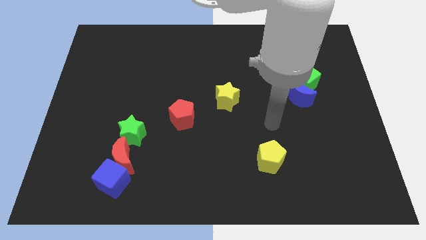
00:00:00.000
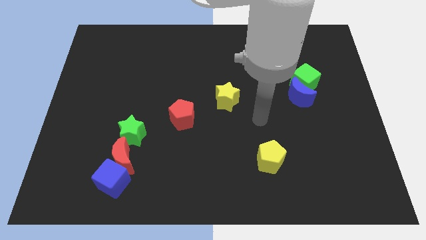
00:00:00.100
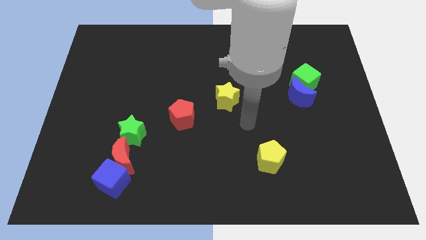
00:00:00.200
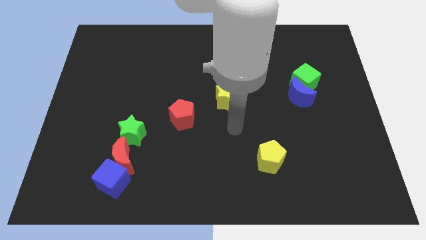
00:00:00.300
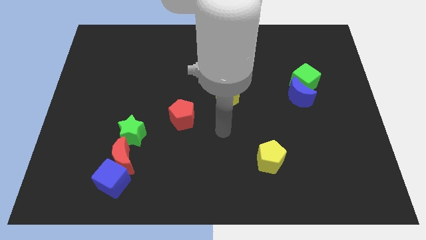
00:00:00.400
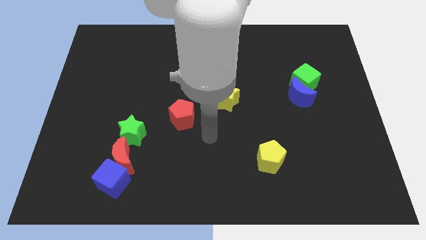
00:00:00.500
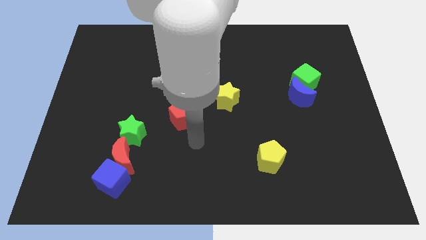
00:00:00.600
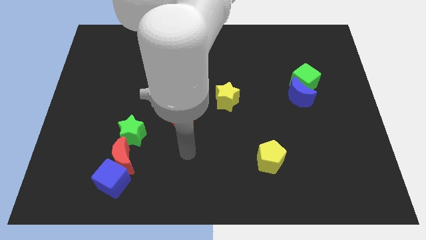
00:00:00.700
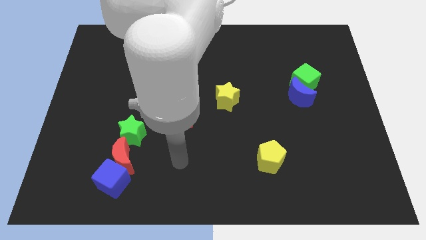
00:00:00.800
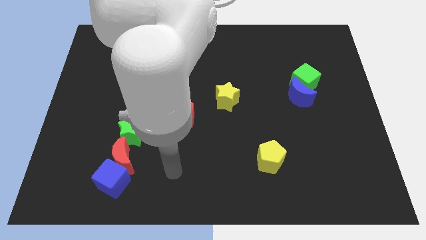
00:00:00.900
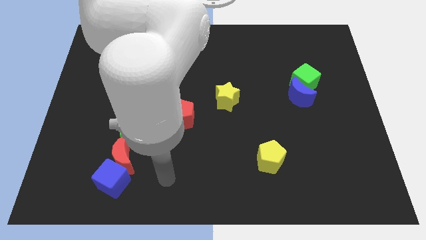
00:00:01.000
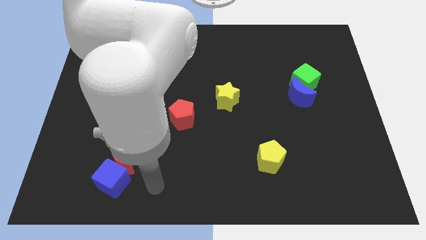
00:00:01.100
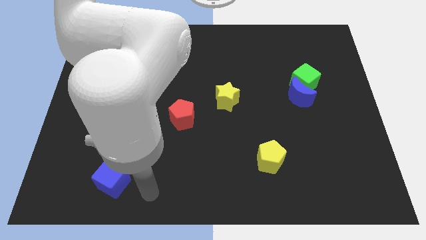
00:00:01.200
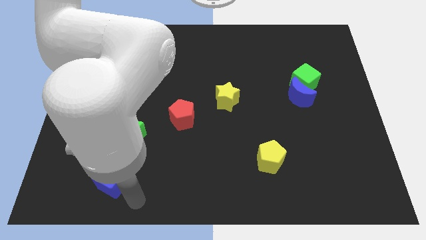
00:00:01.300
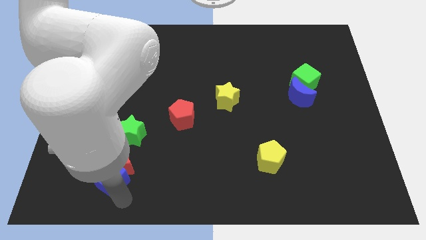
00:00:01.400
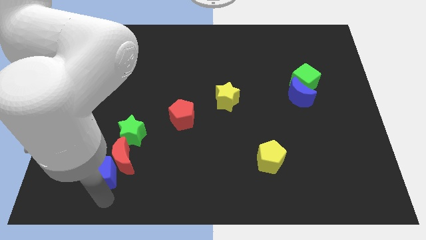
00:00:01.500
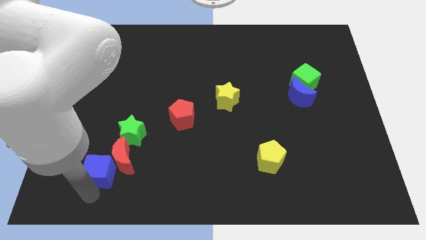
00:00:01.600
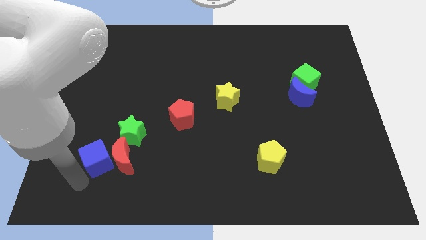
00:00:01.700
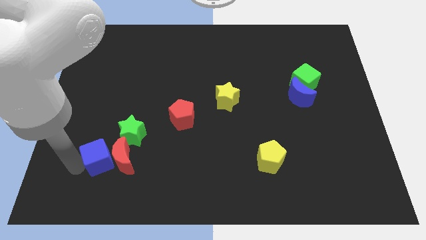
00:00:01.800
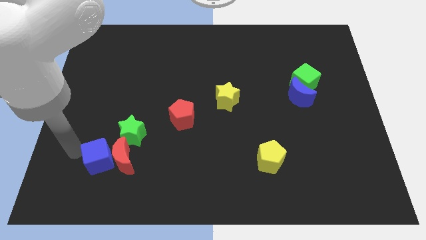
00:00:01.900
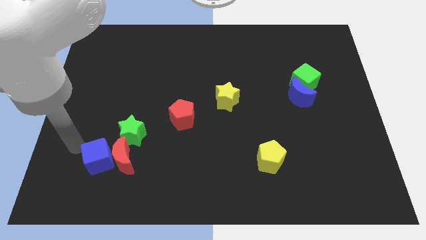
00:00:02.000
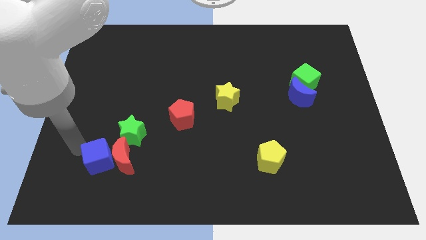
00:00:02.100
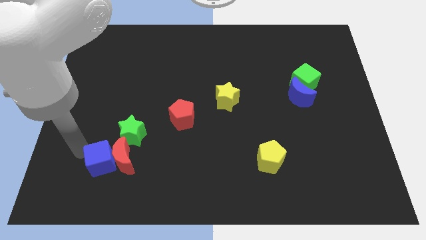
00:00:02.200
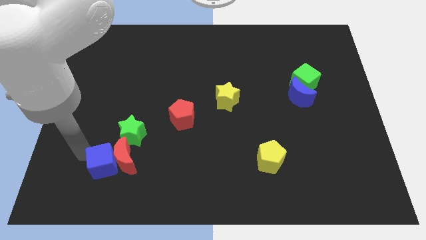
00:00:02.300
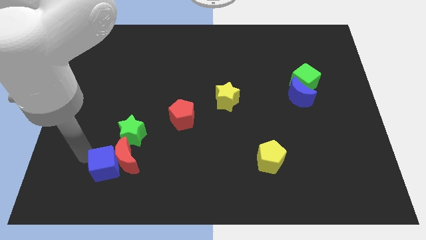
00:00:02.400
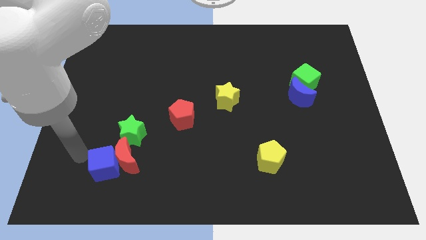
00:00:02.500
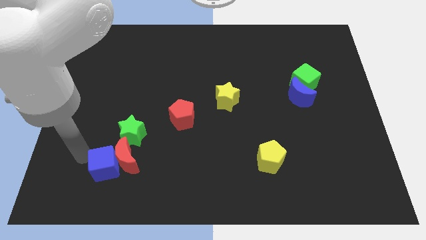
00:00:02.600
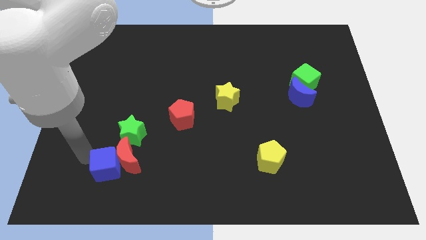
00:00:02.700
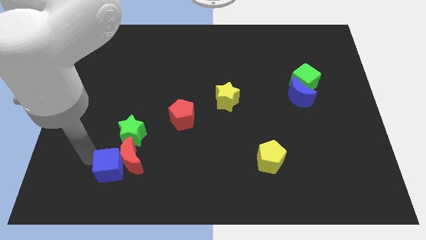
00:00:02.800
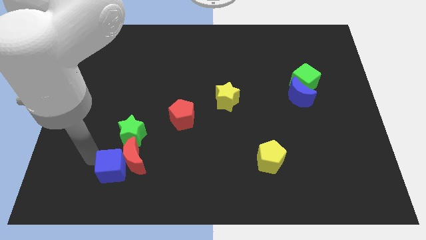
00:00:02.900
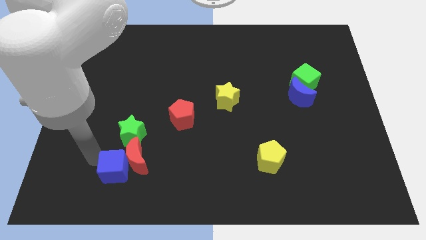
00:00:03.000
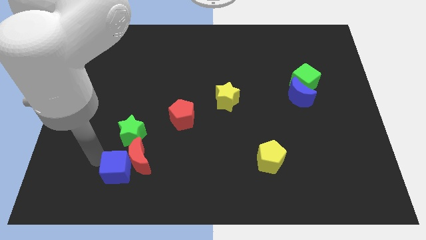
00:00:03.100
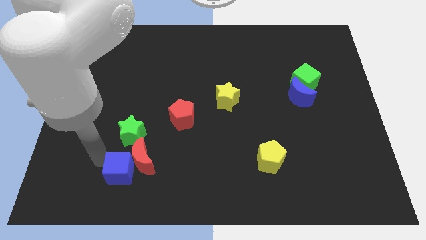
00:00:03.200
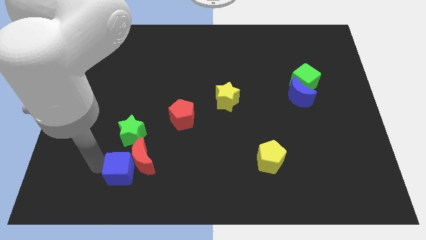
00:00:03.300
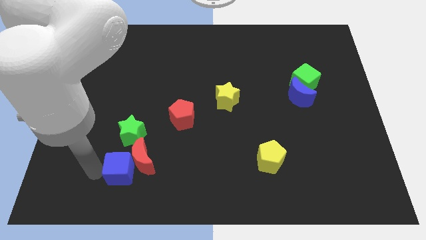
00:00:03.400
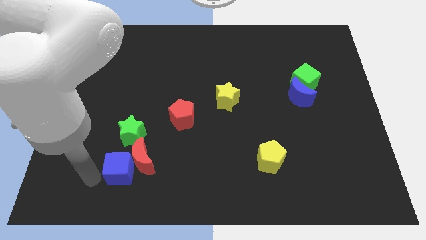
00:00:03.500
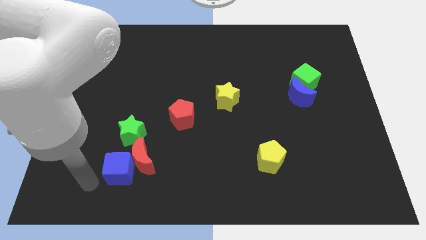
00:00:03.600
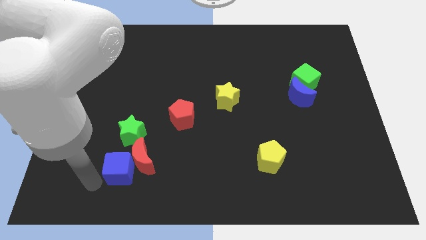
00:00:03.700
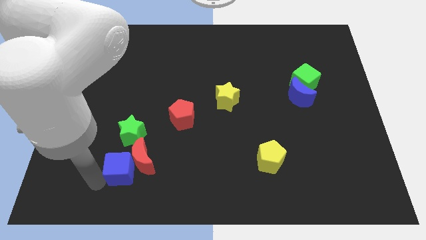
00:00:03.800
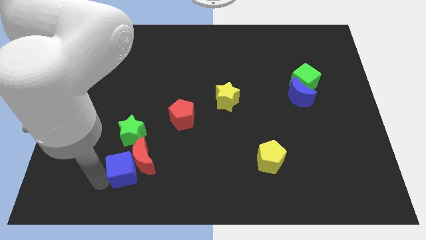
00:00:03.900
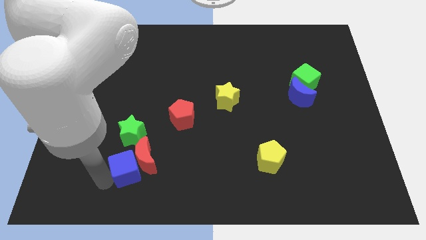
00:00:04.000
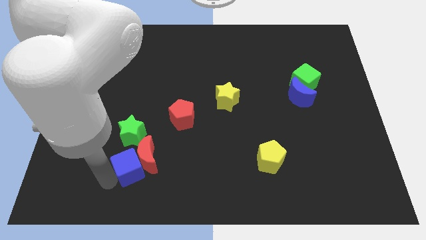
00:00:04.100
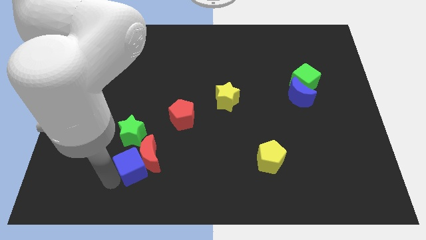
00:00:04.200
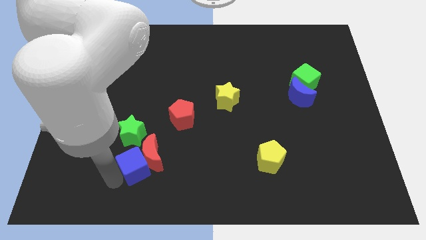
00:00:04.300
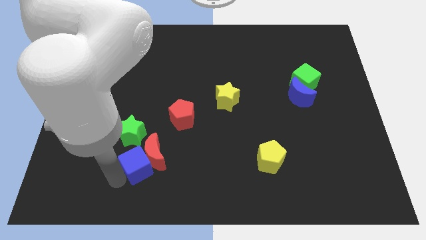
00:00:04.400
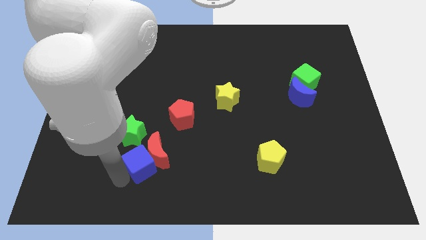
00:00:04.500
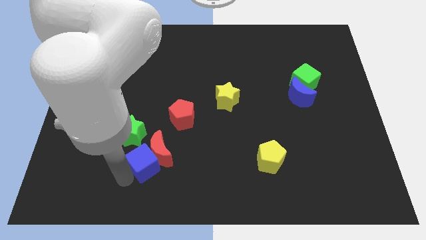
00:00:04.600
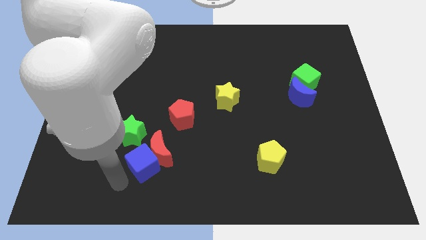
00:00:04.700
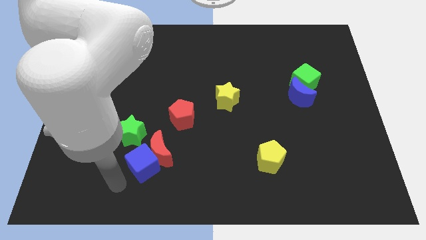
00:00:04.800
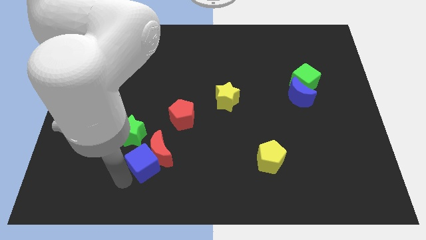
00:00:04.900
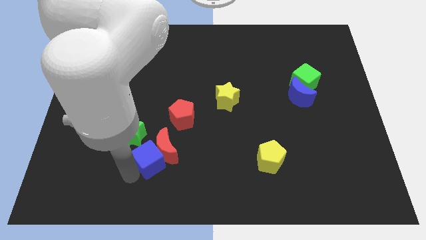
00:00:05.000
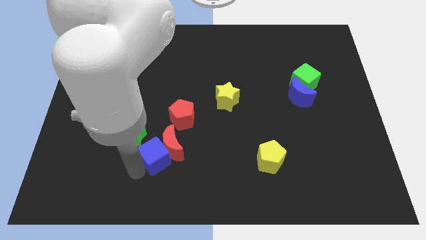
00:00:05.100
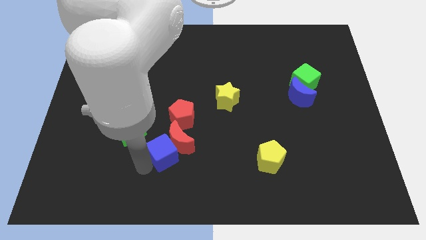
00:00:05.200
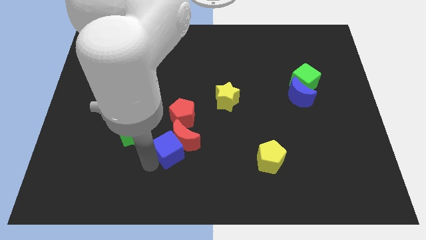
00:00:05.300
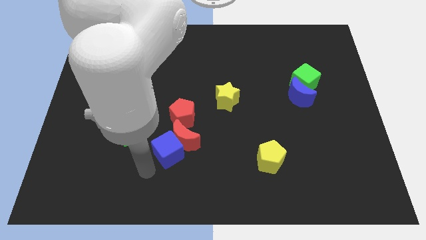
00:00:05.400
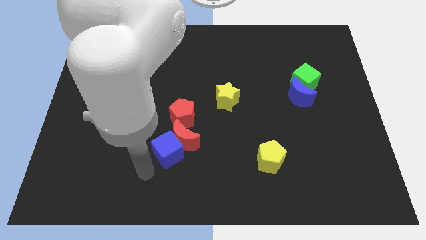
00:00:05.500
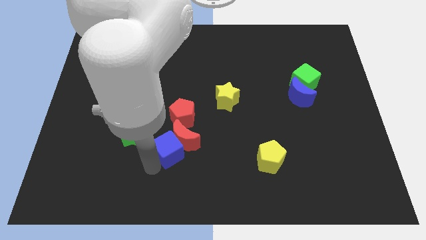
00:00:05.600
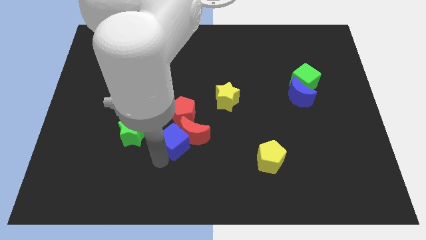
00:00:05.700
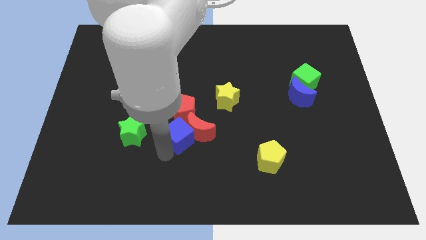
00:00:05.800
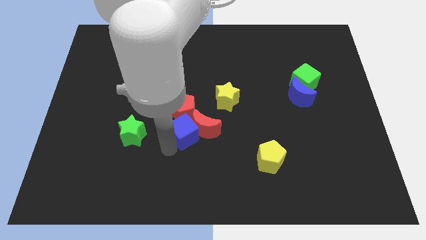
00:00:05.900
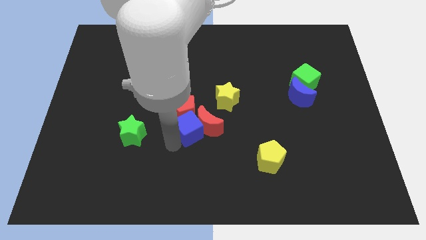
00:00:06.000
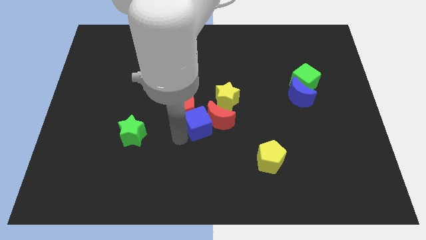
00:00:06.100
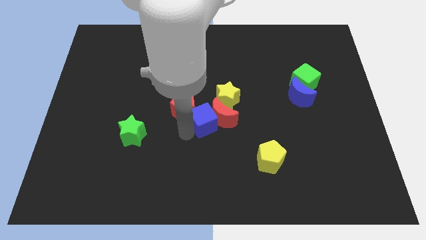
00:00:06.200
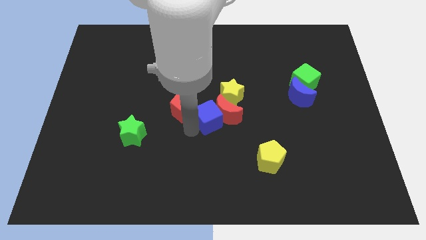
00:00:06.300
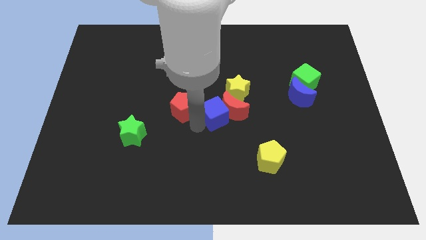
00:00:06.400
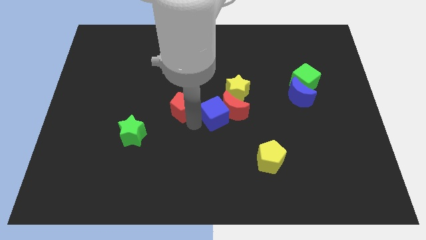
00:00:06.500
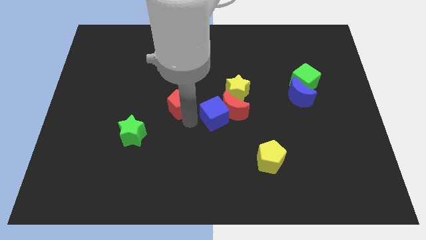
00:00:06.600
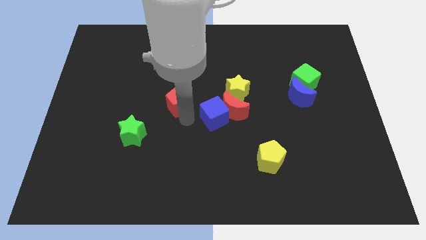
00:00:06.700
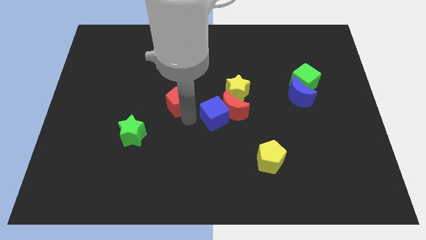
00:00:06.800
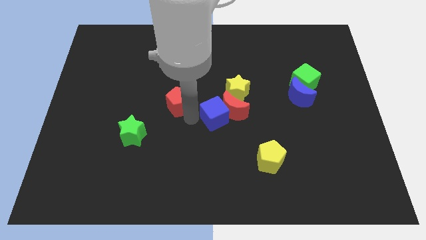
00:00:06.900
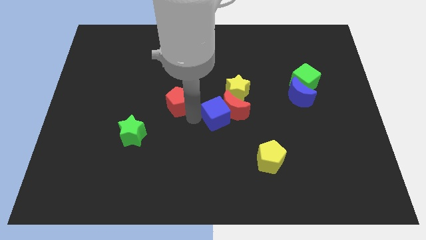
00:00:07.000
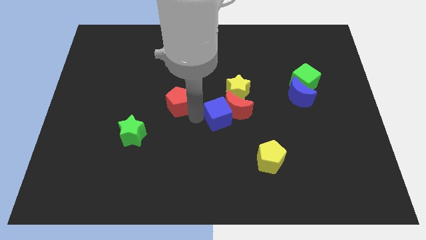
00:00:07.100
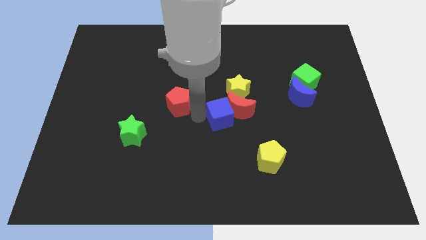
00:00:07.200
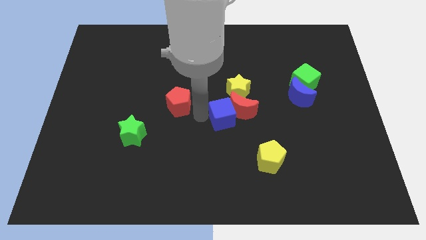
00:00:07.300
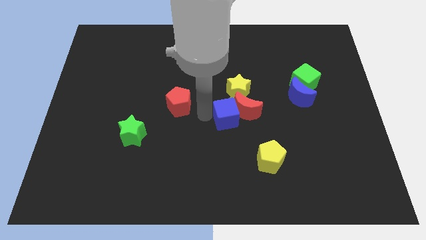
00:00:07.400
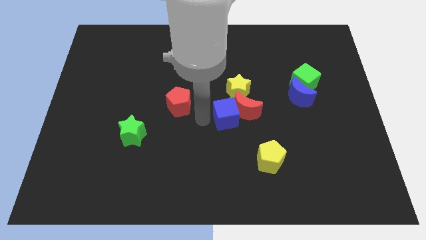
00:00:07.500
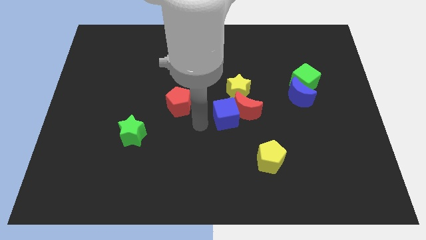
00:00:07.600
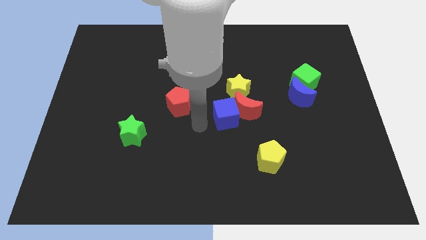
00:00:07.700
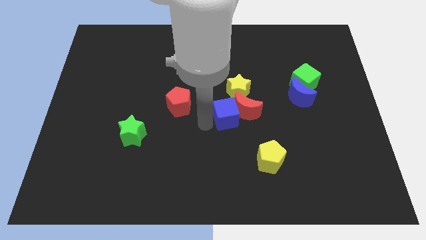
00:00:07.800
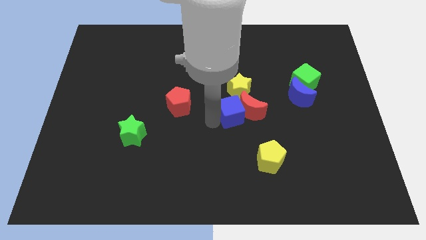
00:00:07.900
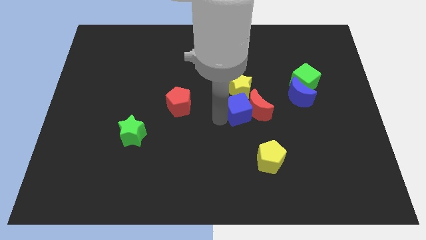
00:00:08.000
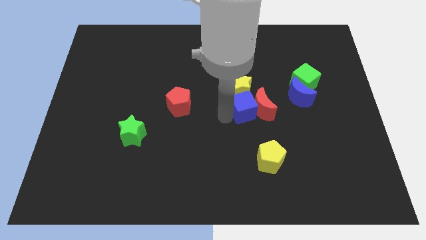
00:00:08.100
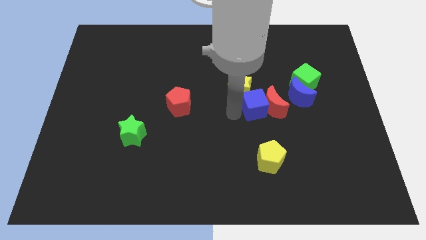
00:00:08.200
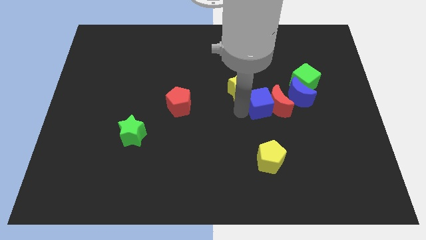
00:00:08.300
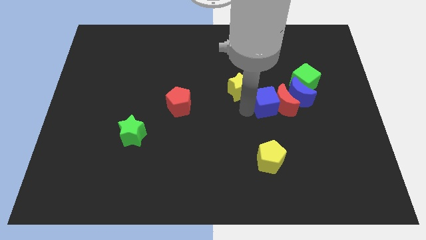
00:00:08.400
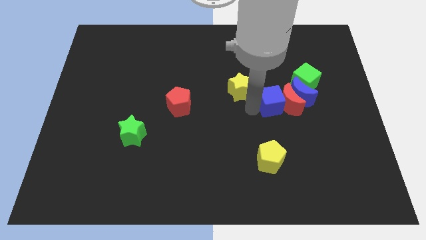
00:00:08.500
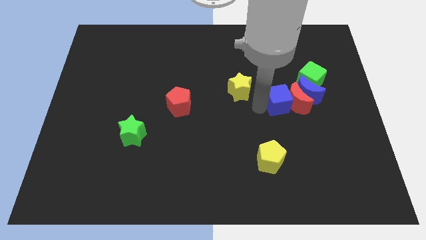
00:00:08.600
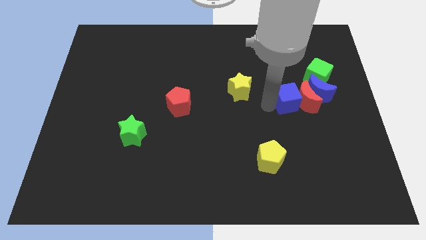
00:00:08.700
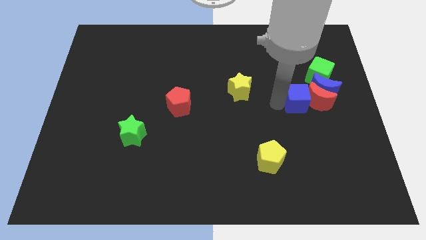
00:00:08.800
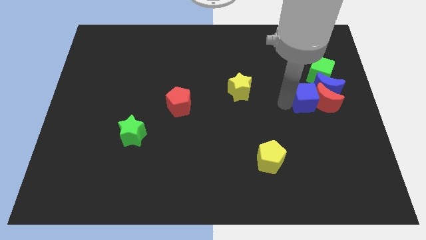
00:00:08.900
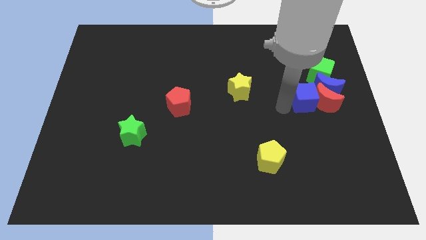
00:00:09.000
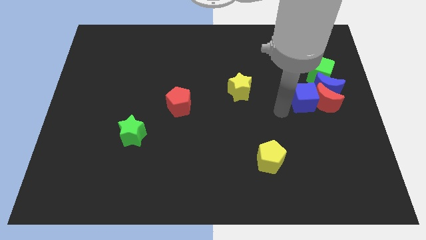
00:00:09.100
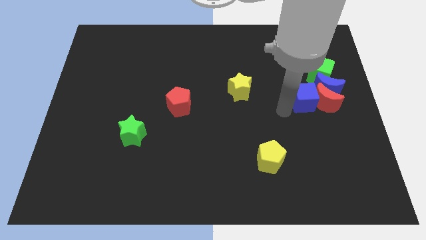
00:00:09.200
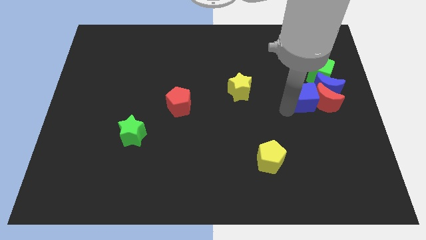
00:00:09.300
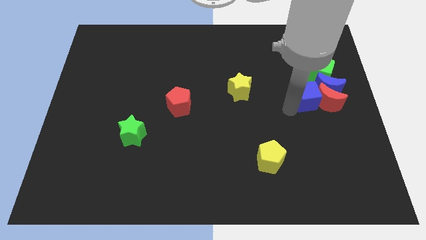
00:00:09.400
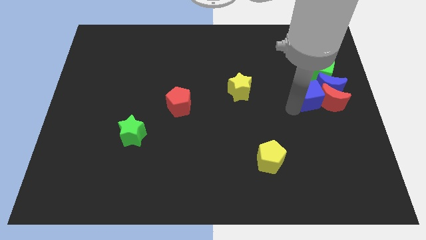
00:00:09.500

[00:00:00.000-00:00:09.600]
put the blue cube towards the blue moon
